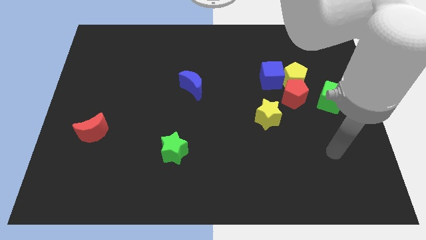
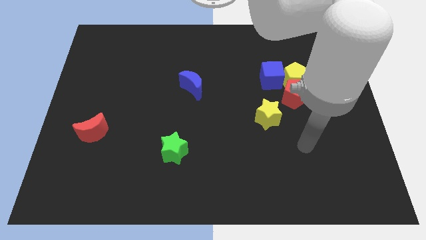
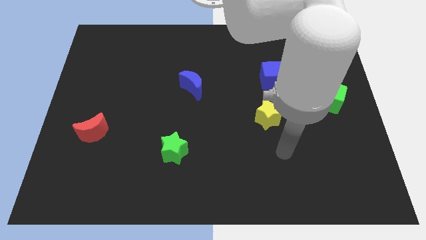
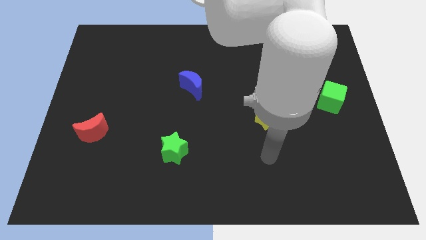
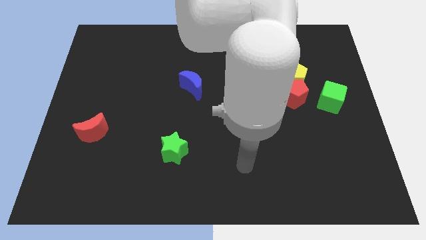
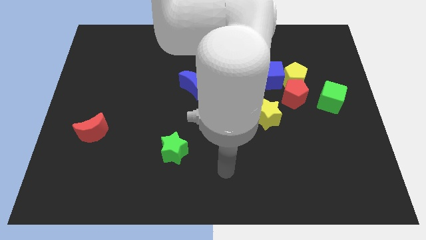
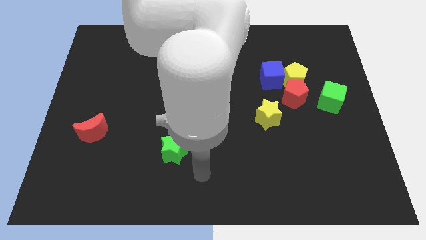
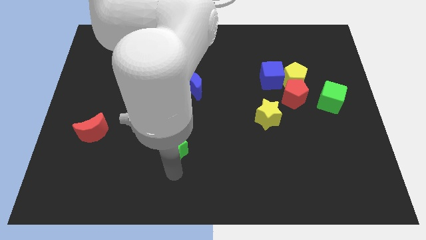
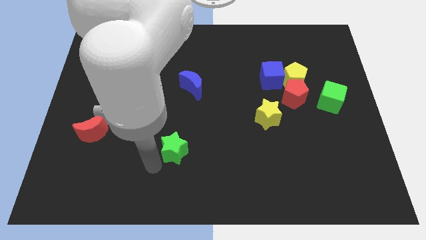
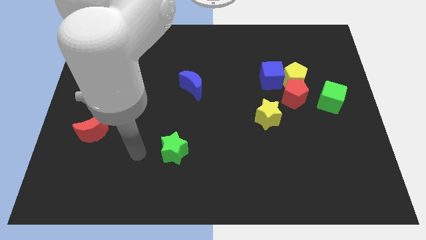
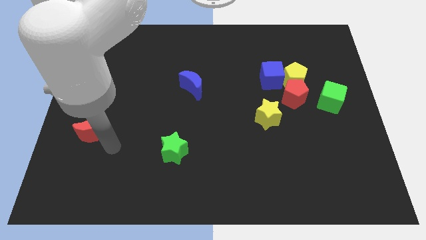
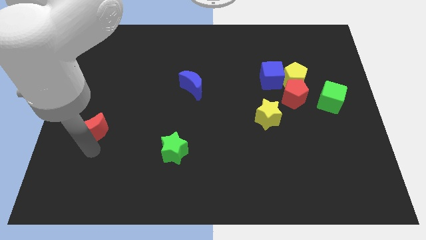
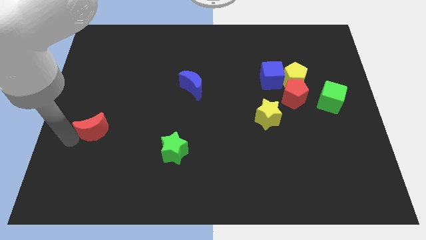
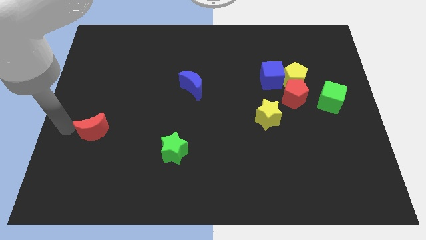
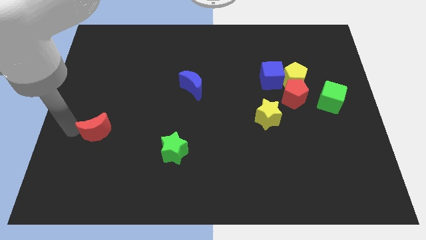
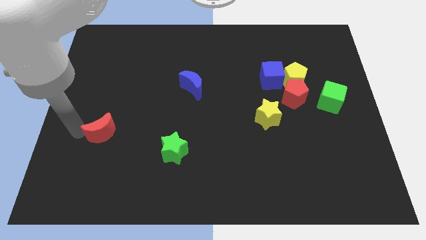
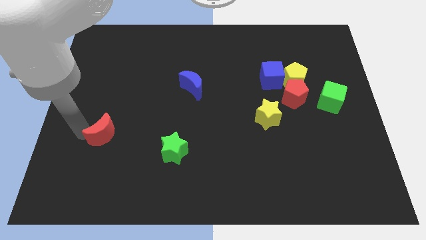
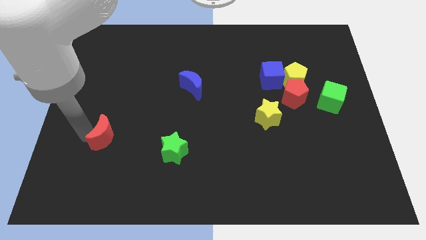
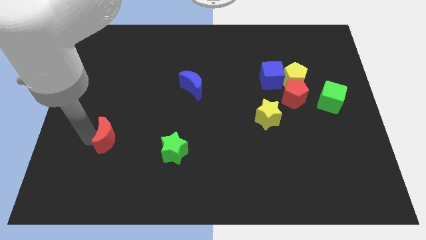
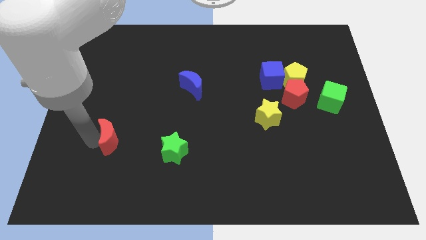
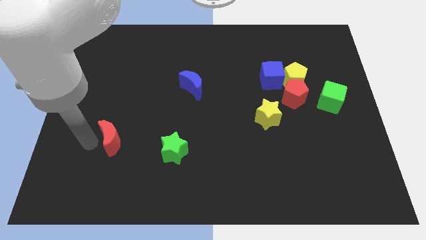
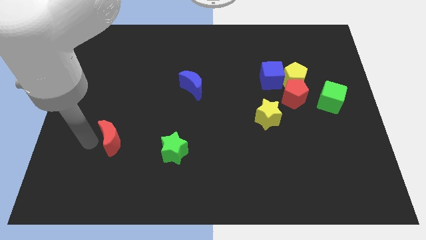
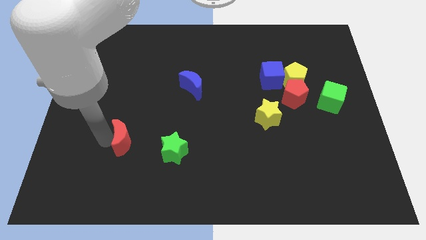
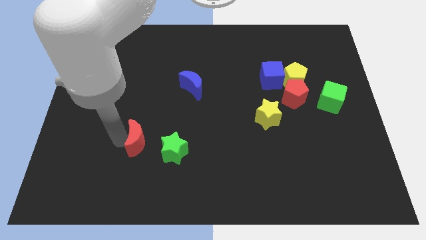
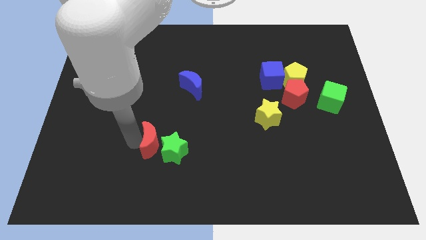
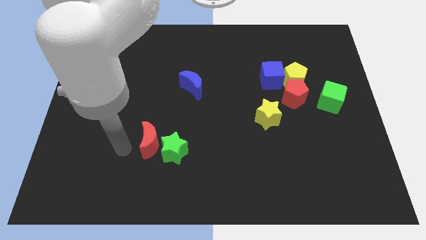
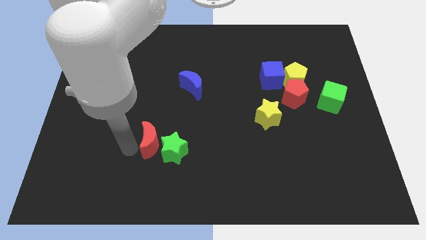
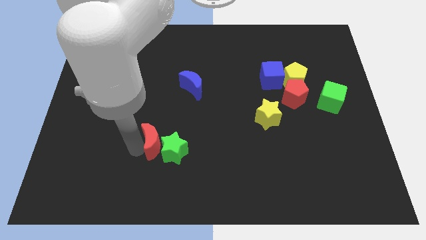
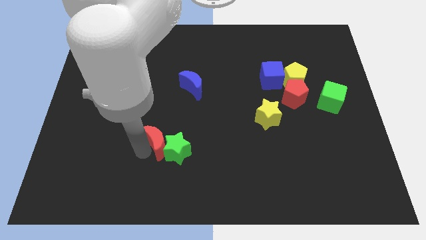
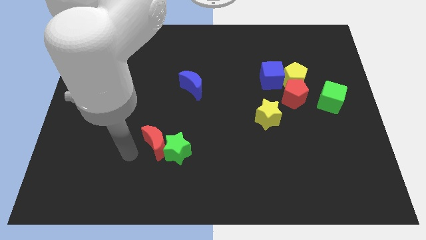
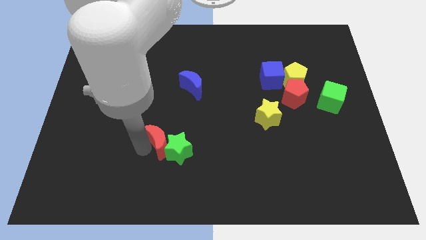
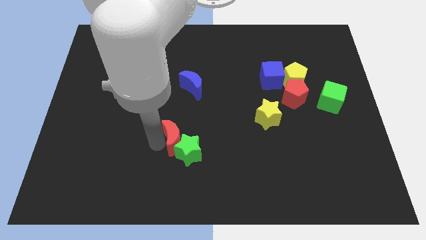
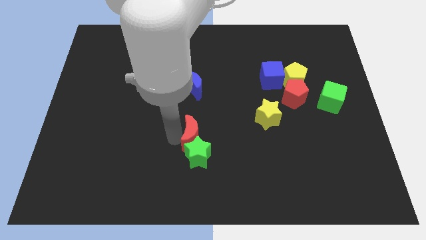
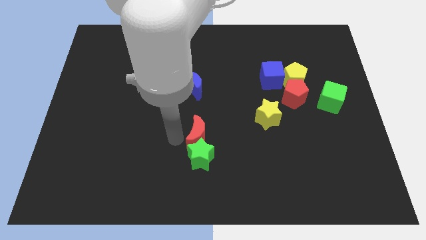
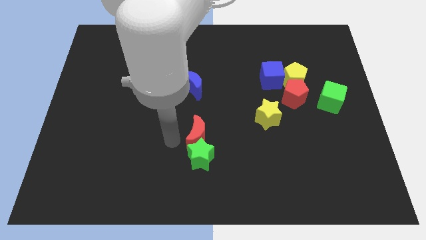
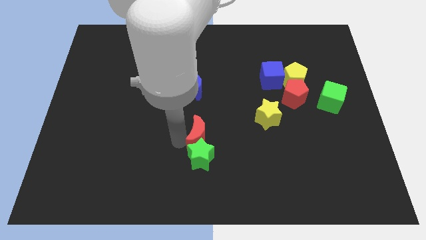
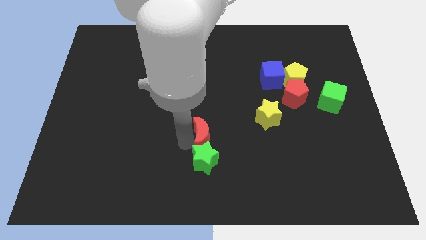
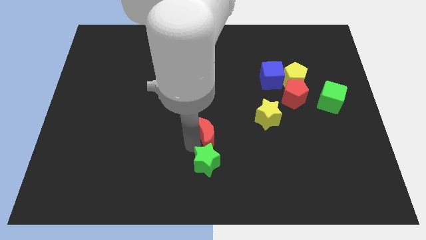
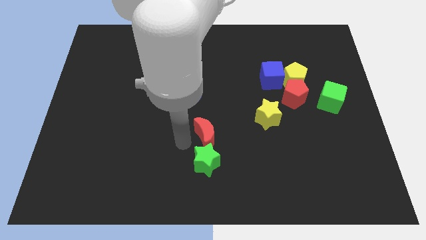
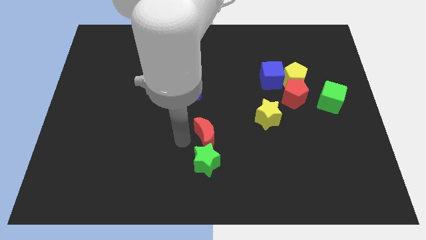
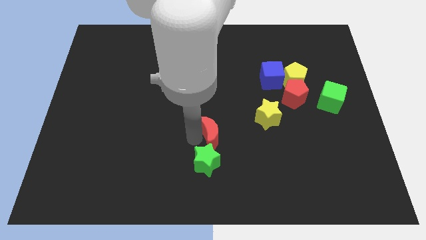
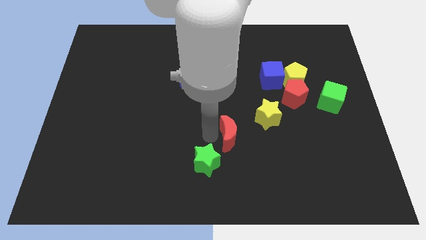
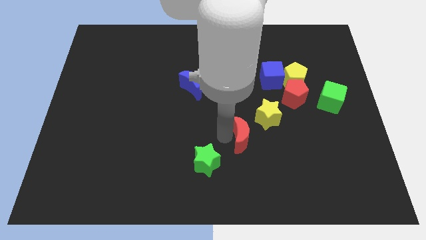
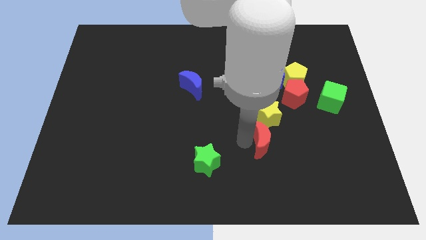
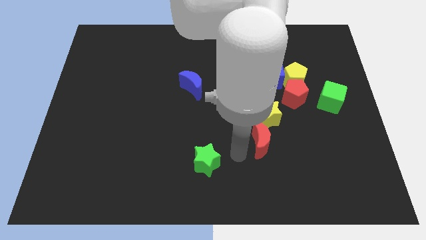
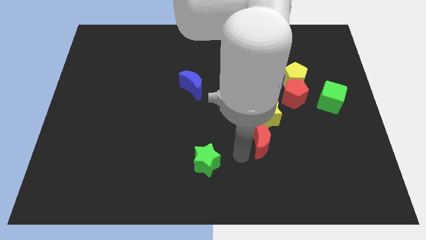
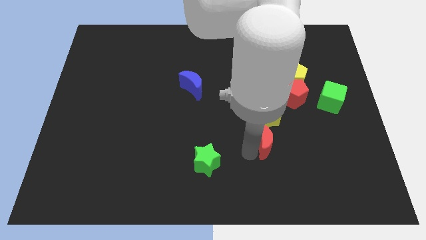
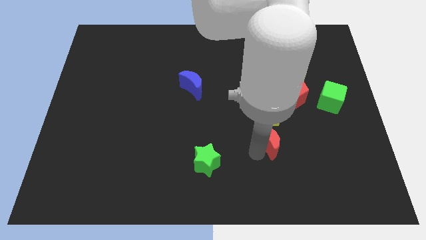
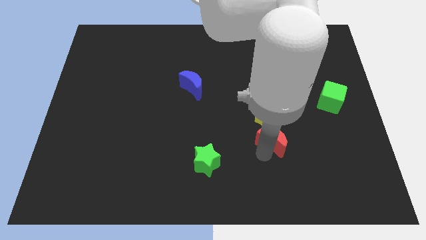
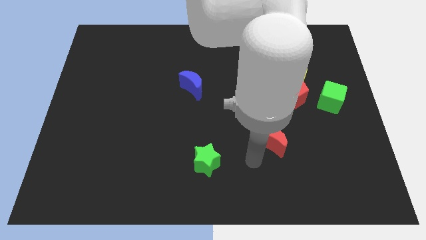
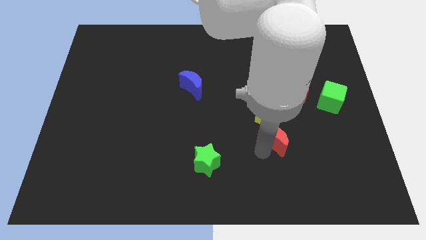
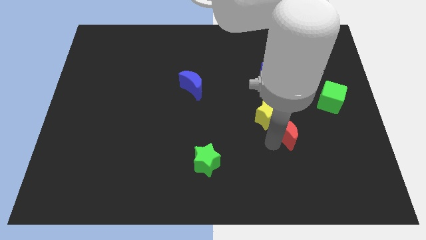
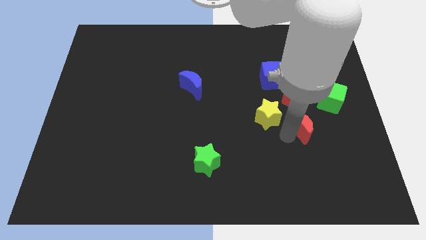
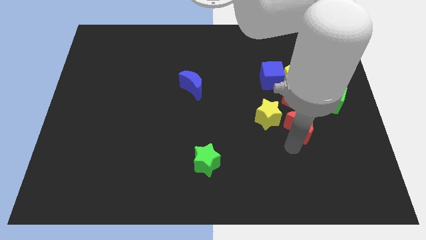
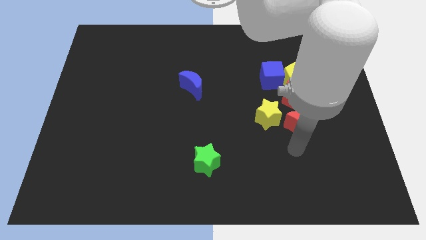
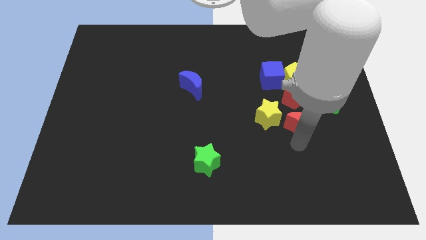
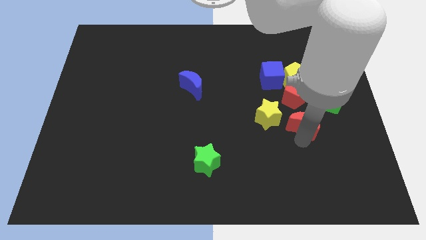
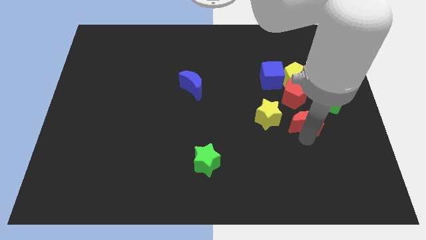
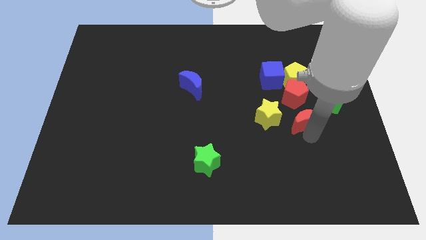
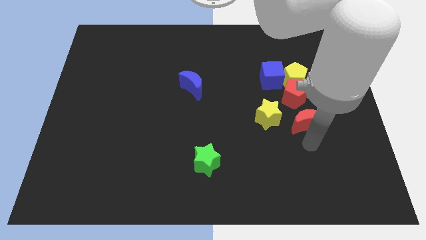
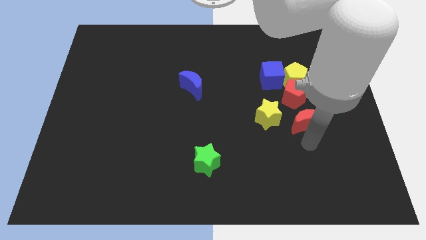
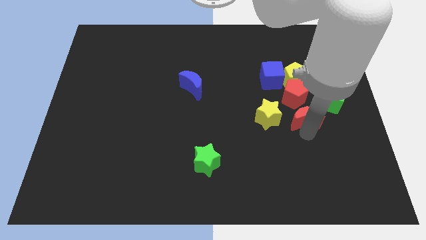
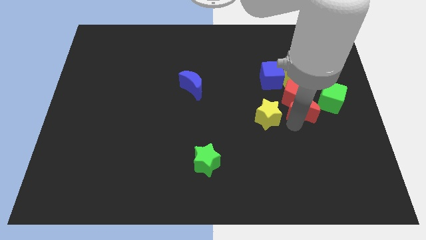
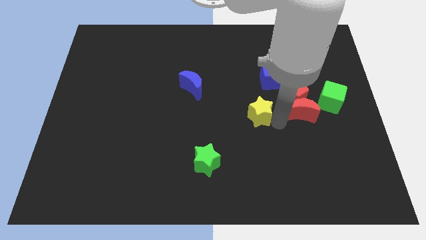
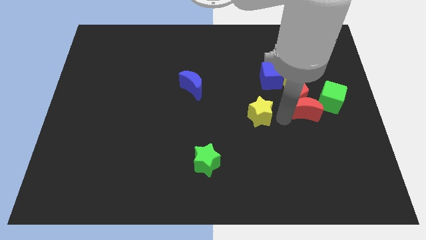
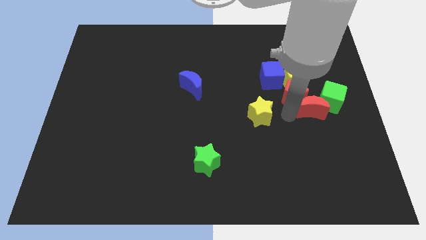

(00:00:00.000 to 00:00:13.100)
put the red moon to the green cube

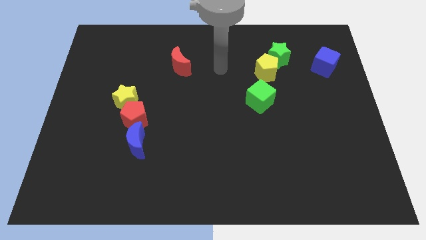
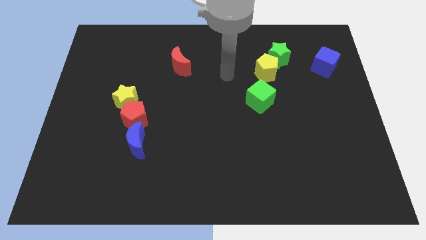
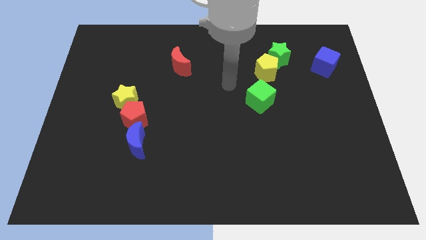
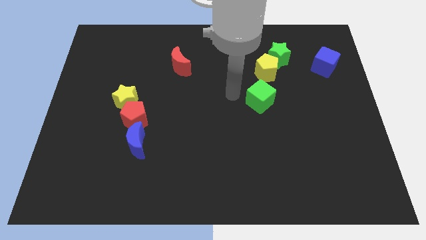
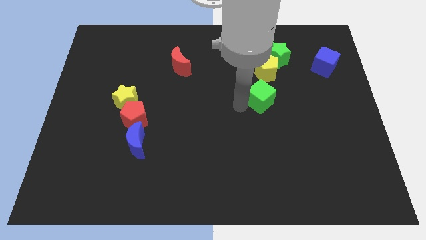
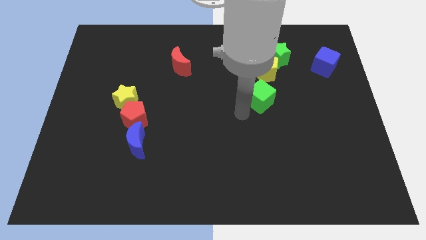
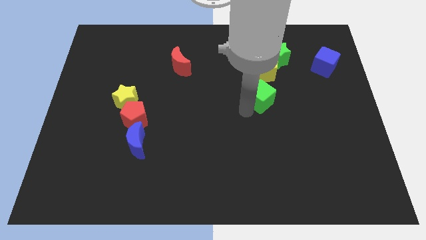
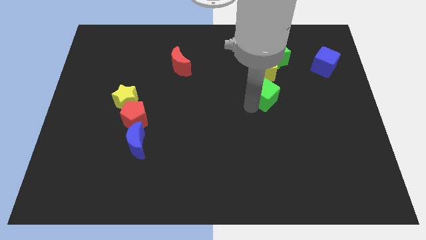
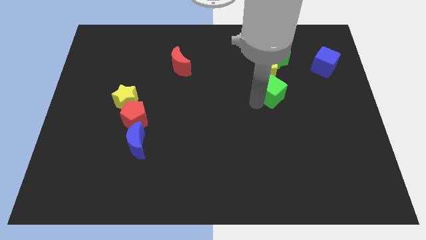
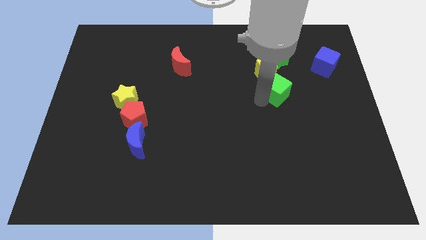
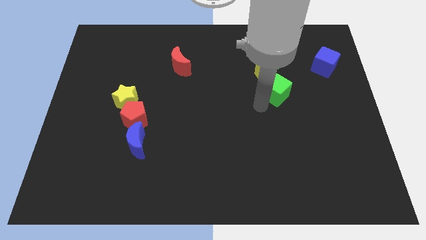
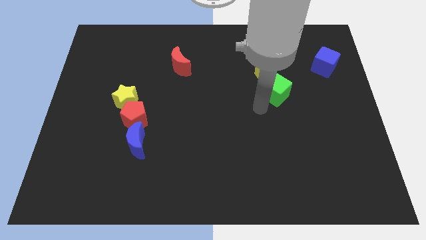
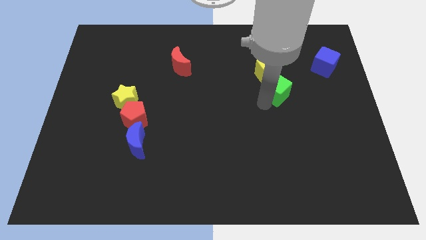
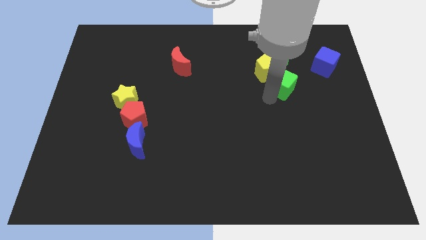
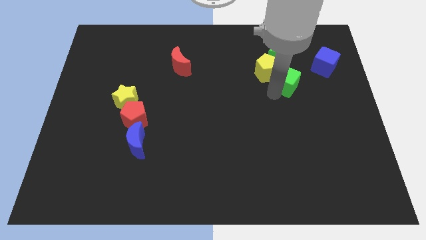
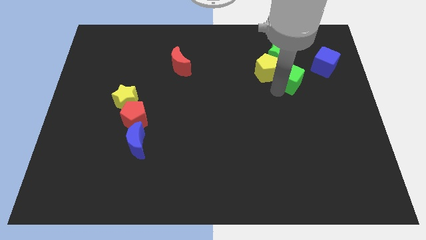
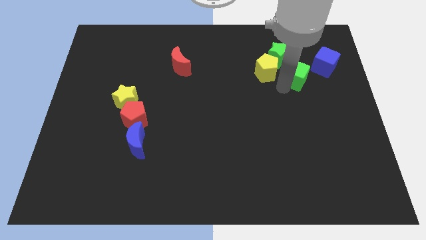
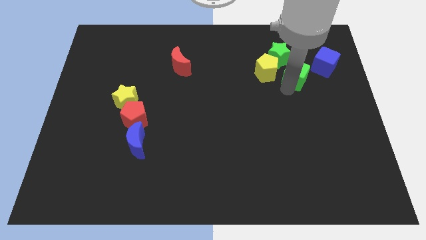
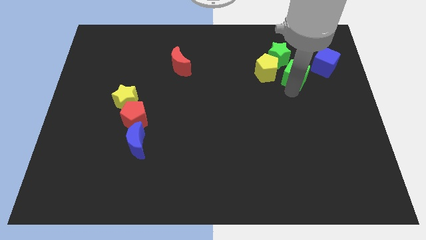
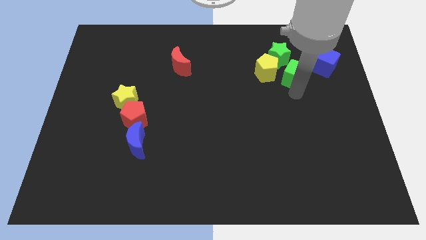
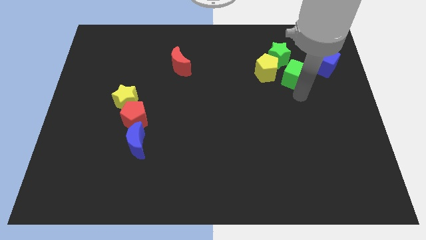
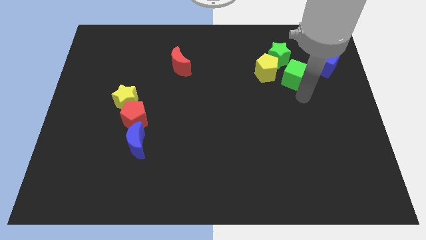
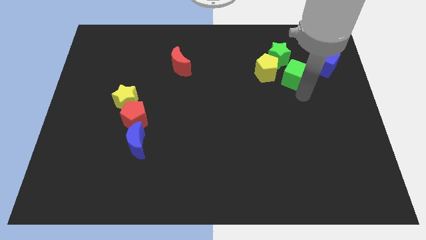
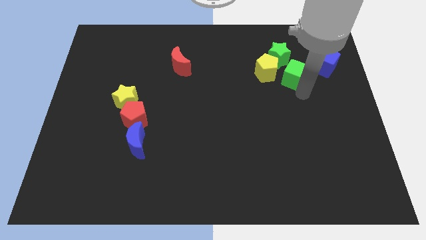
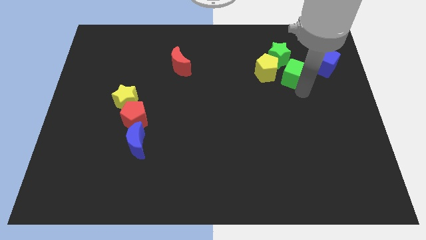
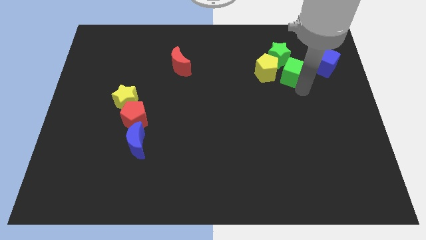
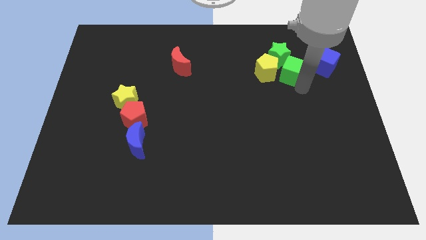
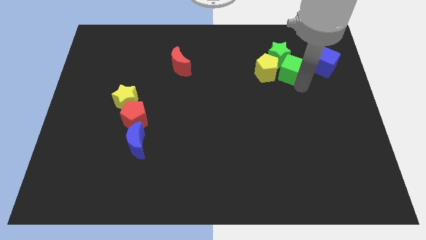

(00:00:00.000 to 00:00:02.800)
slide the green cube to the green star
